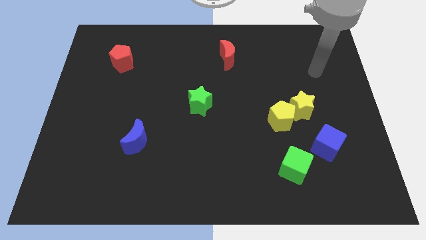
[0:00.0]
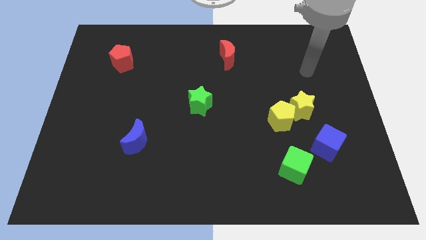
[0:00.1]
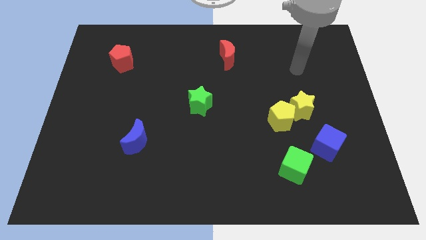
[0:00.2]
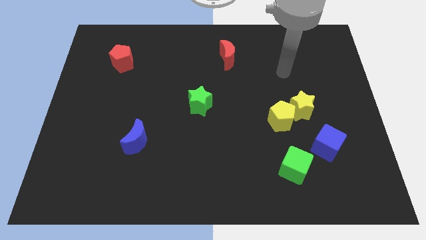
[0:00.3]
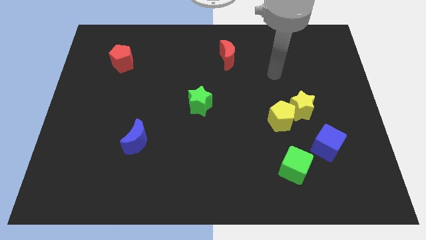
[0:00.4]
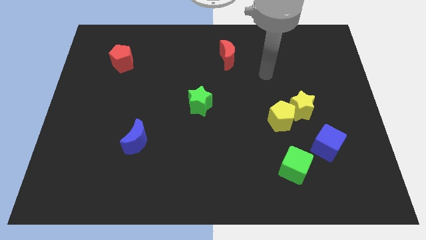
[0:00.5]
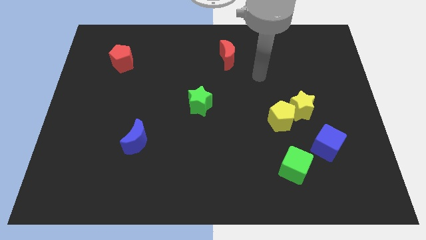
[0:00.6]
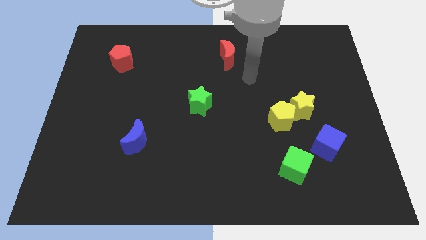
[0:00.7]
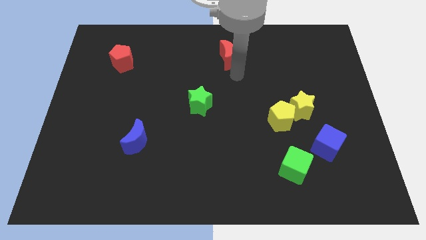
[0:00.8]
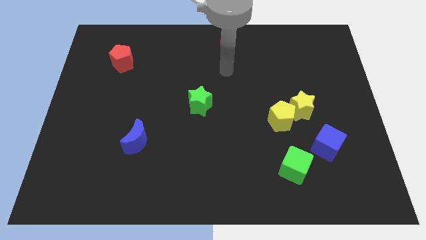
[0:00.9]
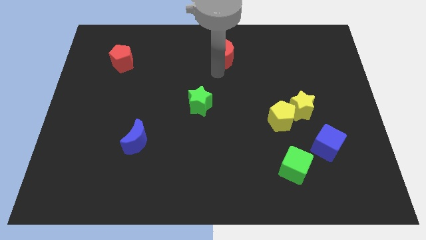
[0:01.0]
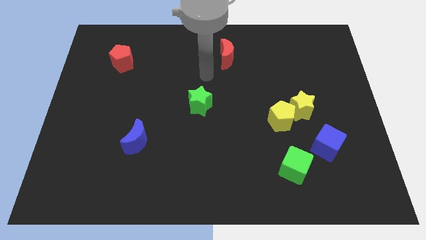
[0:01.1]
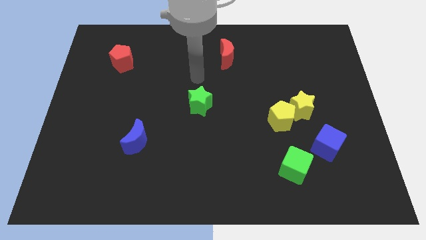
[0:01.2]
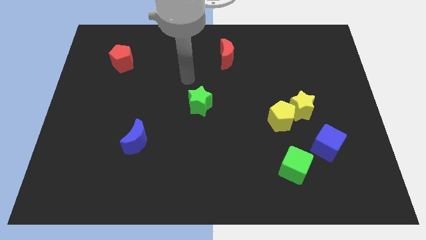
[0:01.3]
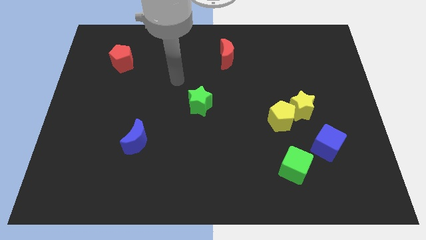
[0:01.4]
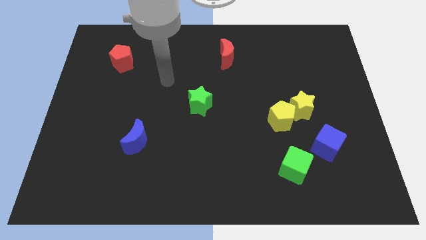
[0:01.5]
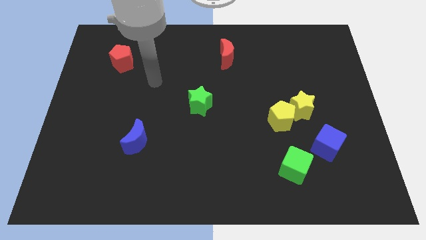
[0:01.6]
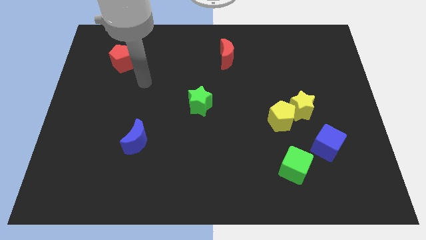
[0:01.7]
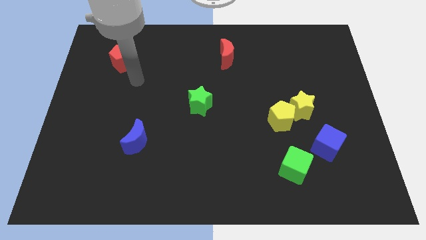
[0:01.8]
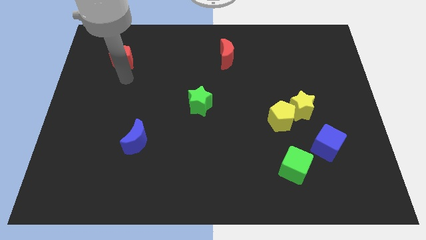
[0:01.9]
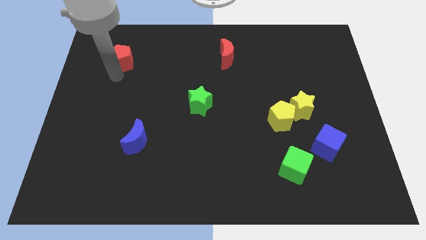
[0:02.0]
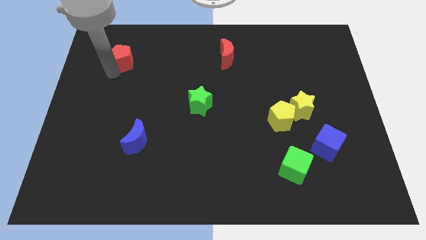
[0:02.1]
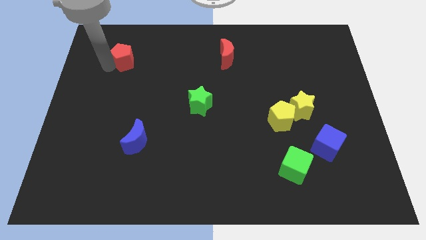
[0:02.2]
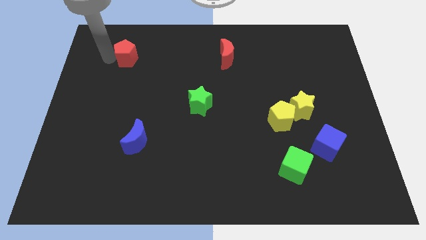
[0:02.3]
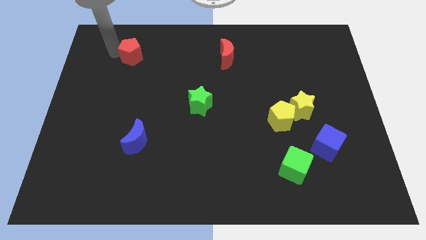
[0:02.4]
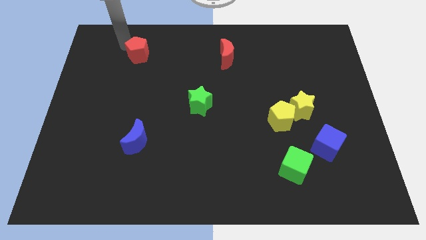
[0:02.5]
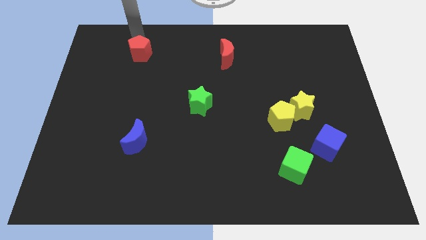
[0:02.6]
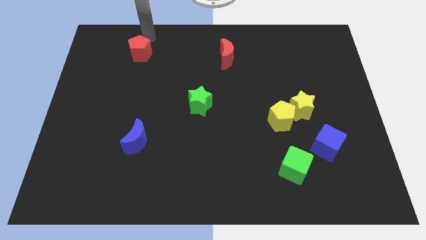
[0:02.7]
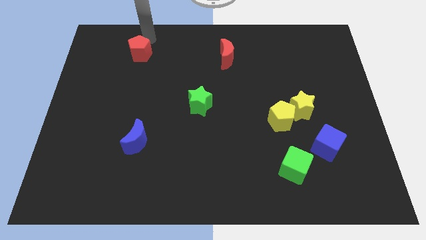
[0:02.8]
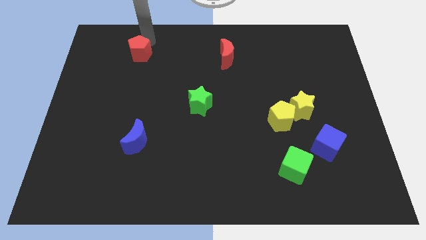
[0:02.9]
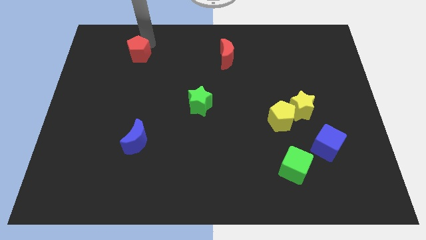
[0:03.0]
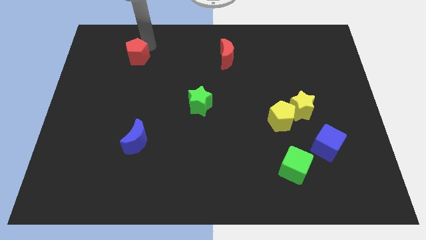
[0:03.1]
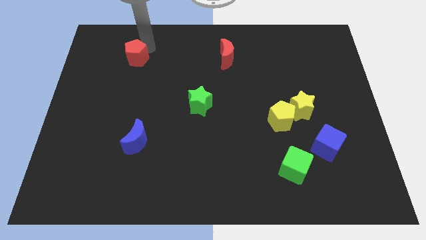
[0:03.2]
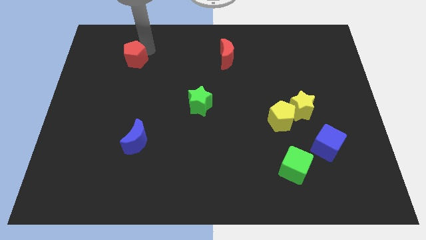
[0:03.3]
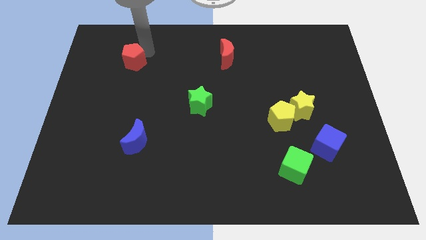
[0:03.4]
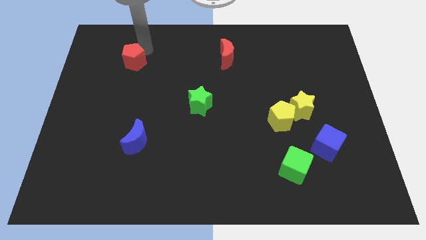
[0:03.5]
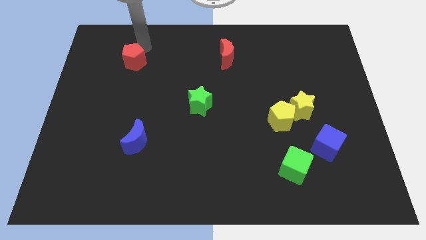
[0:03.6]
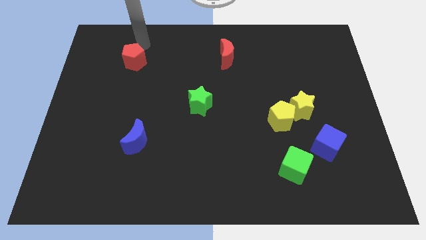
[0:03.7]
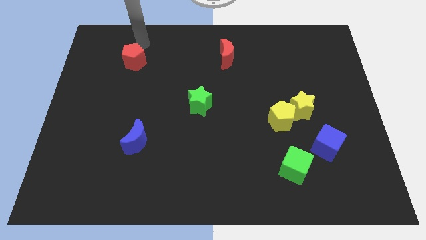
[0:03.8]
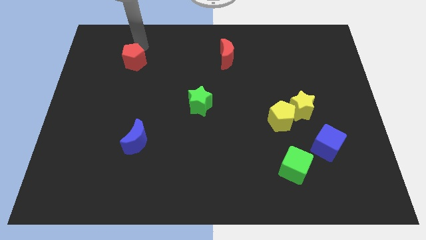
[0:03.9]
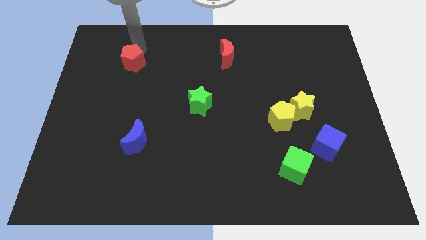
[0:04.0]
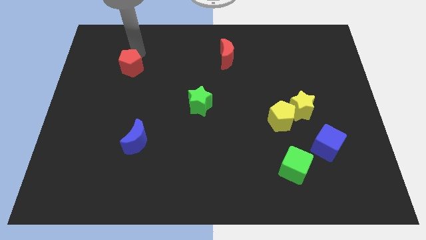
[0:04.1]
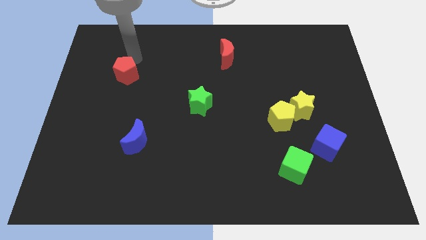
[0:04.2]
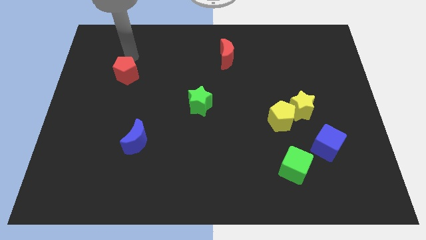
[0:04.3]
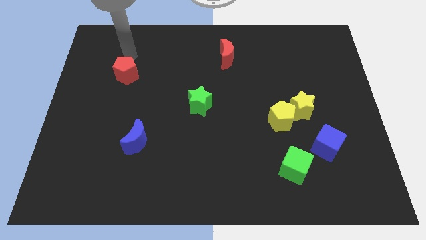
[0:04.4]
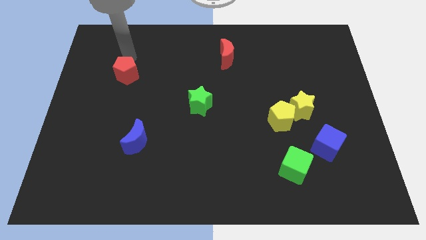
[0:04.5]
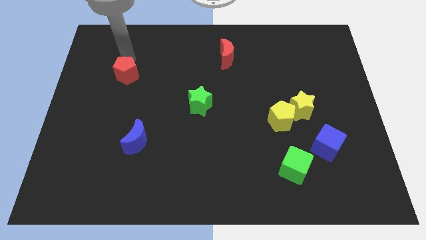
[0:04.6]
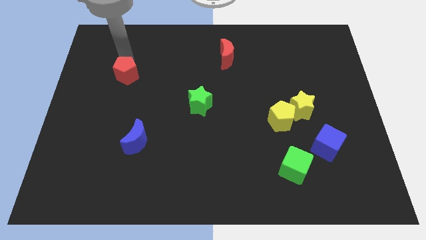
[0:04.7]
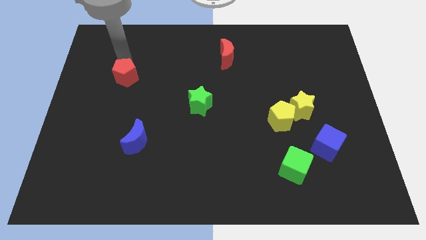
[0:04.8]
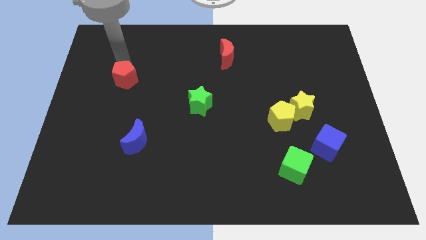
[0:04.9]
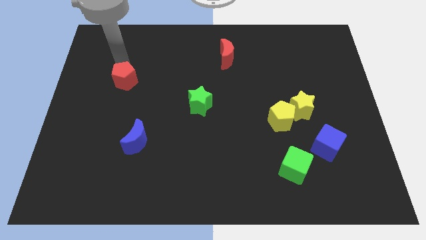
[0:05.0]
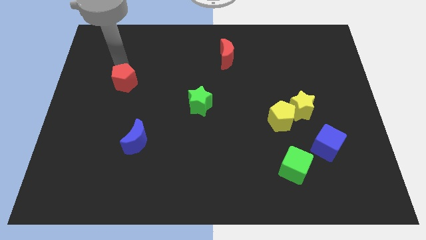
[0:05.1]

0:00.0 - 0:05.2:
push the red pentagon a bit downwards

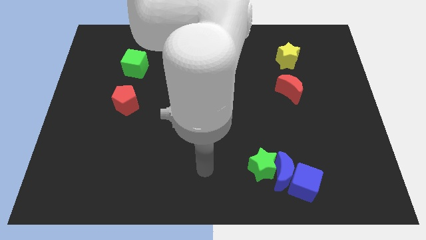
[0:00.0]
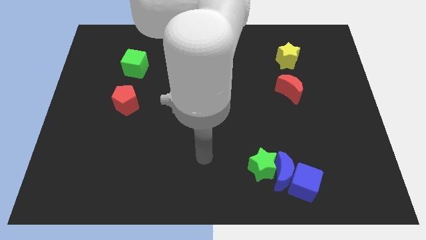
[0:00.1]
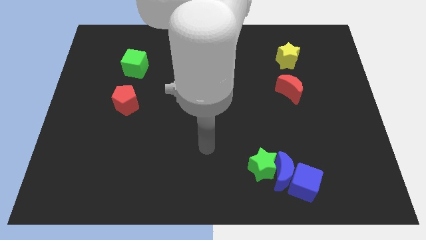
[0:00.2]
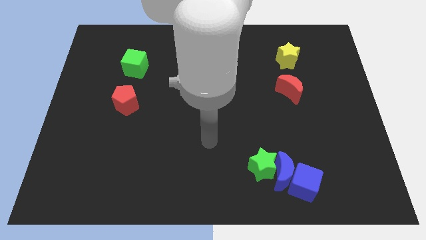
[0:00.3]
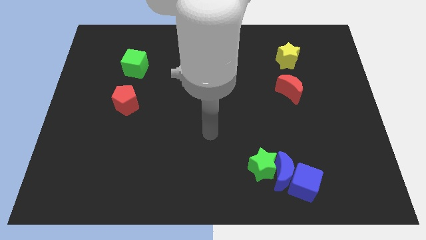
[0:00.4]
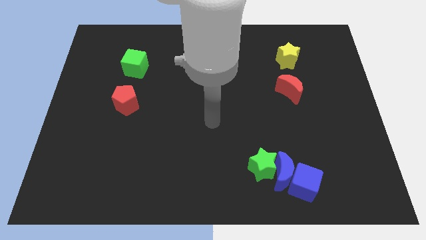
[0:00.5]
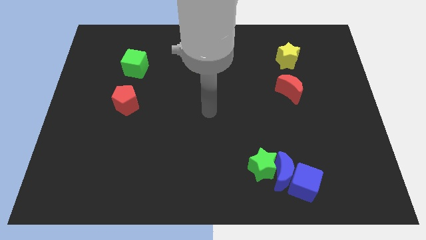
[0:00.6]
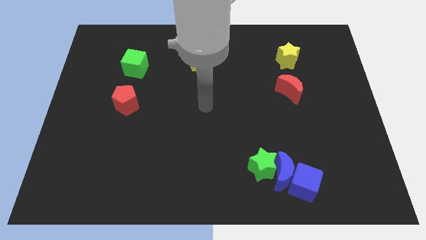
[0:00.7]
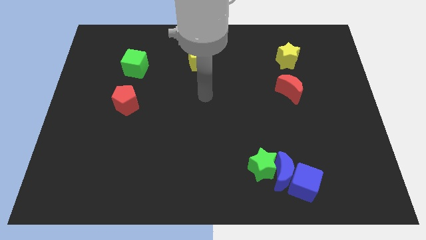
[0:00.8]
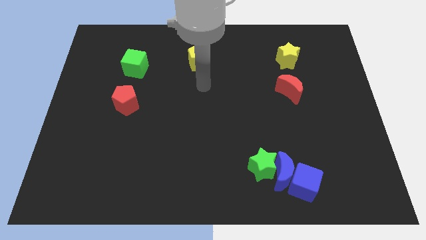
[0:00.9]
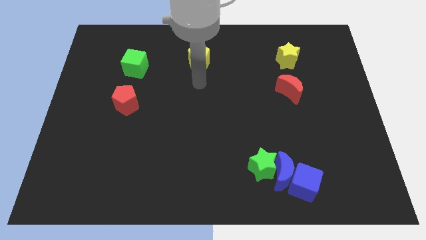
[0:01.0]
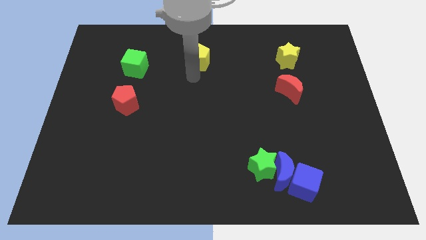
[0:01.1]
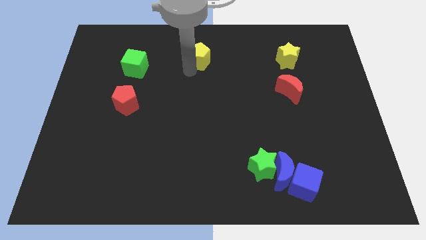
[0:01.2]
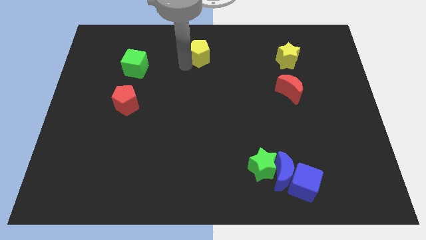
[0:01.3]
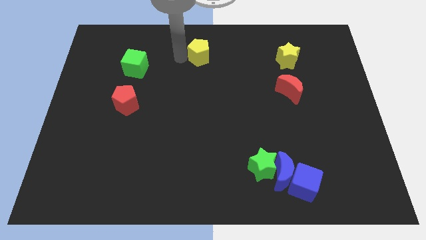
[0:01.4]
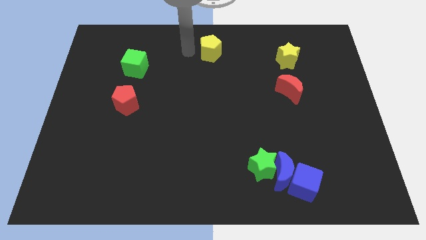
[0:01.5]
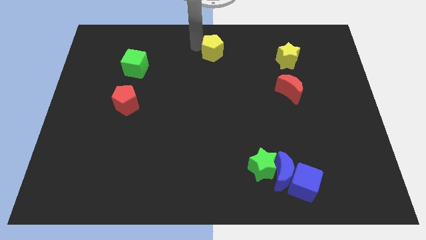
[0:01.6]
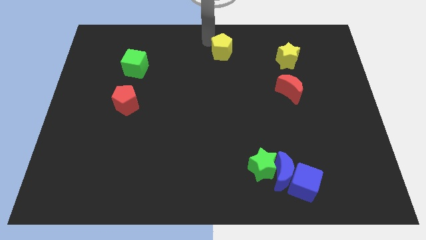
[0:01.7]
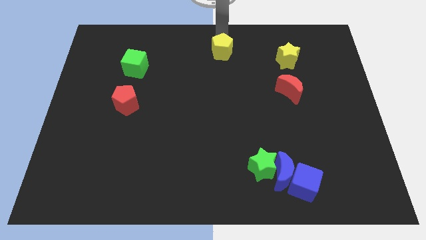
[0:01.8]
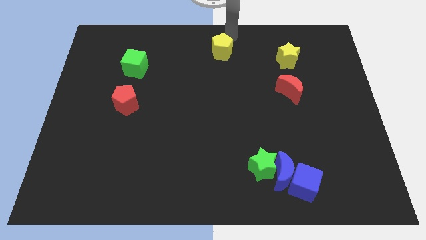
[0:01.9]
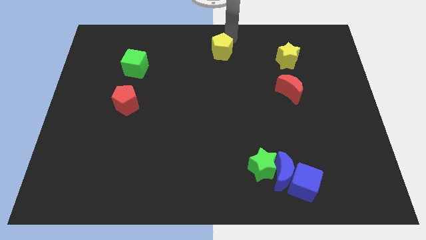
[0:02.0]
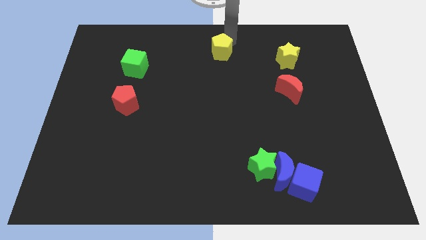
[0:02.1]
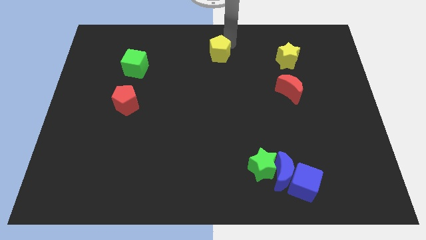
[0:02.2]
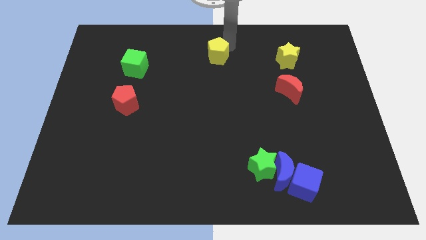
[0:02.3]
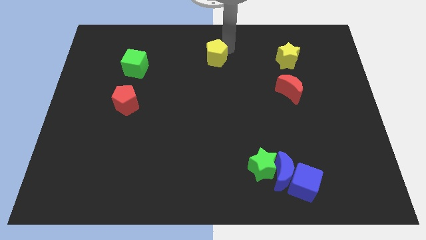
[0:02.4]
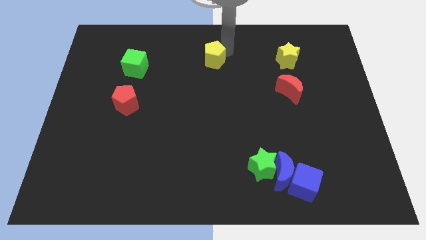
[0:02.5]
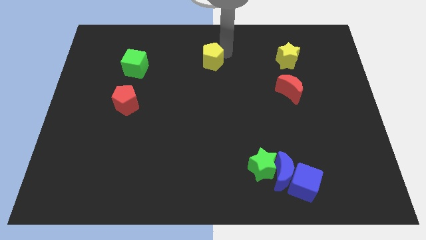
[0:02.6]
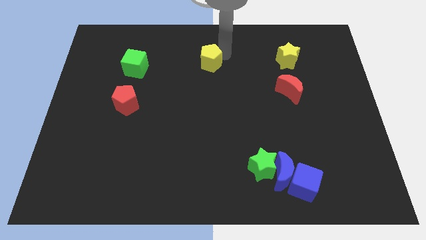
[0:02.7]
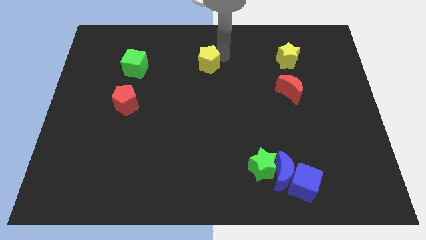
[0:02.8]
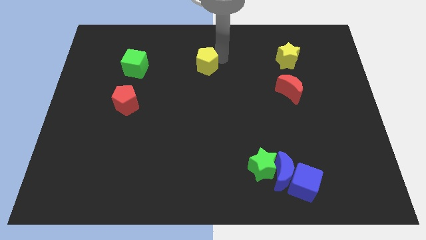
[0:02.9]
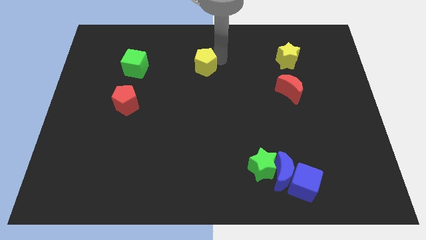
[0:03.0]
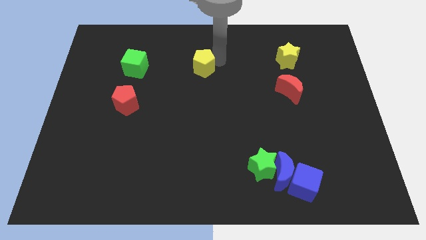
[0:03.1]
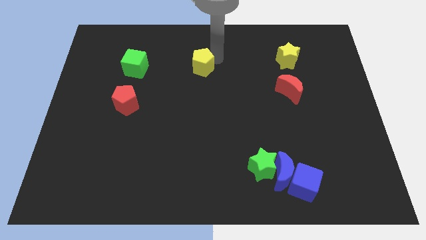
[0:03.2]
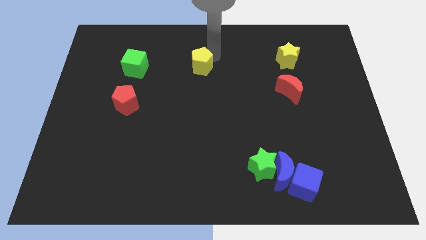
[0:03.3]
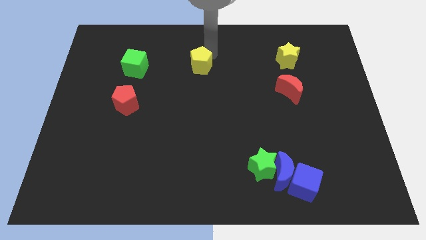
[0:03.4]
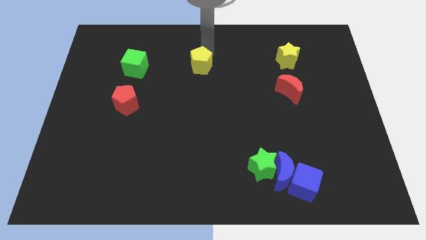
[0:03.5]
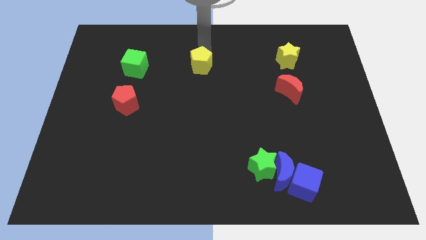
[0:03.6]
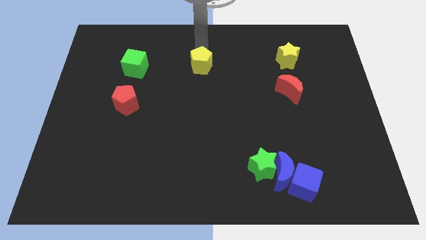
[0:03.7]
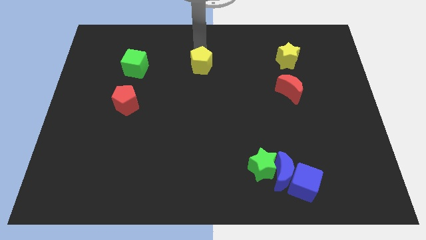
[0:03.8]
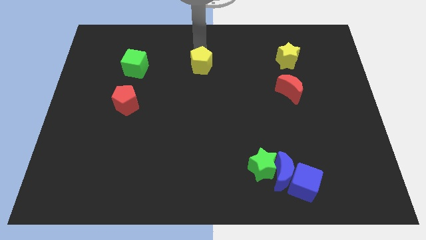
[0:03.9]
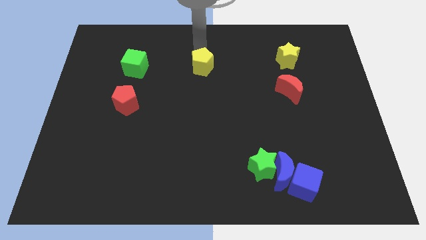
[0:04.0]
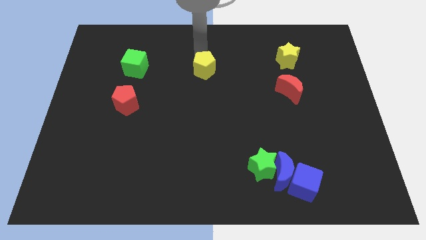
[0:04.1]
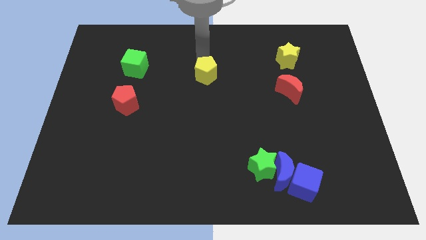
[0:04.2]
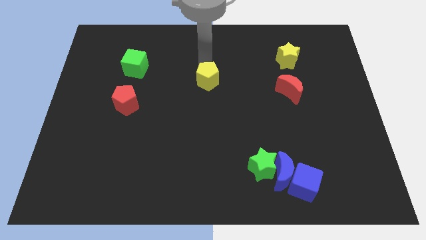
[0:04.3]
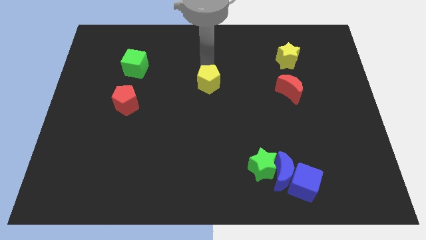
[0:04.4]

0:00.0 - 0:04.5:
slightly move the yellow pentagon down
